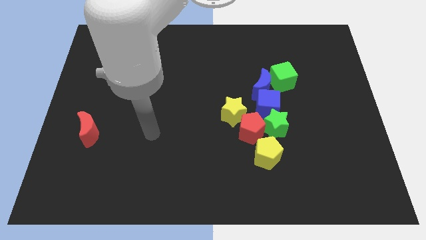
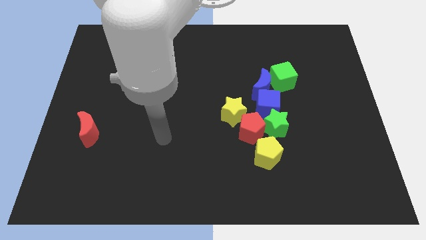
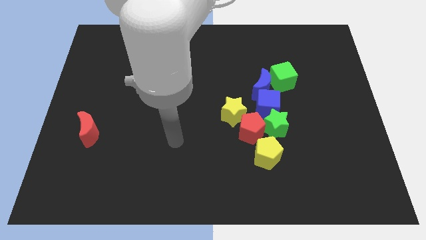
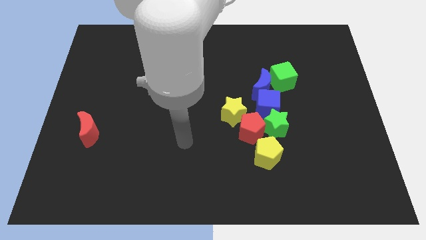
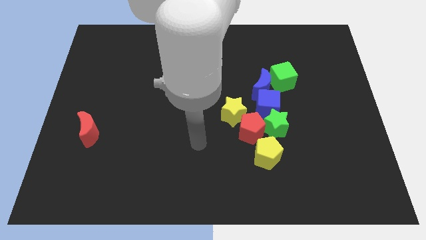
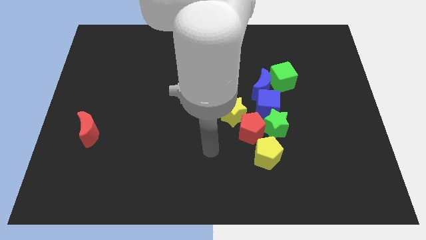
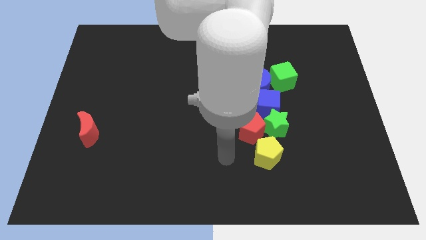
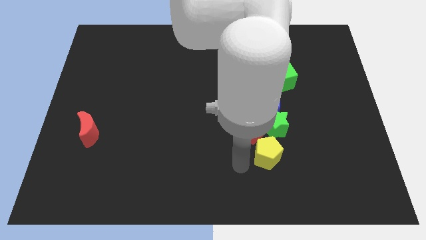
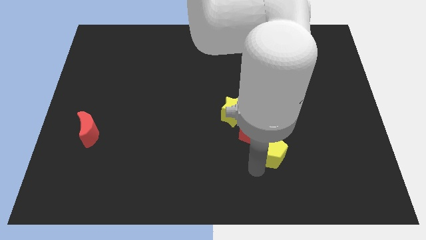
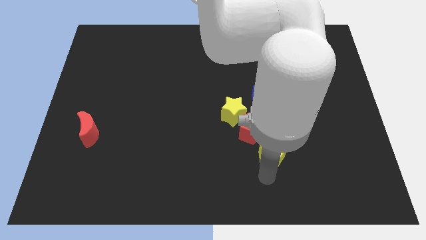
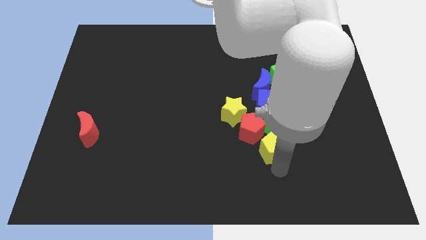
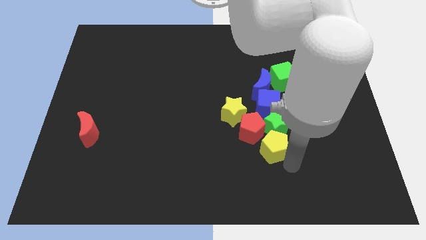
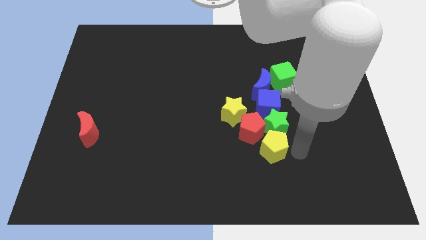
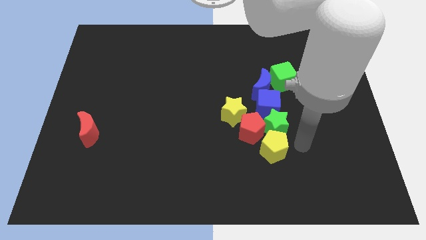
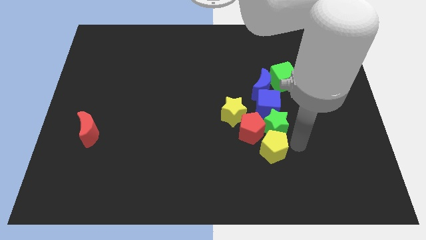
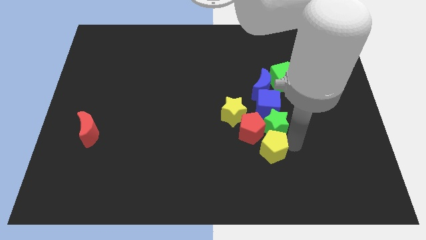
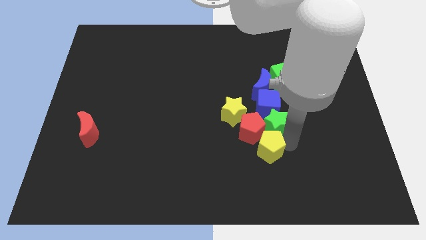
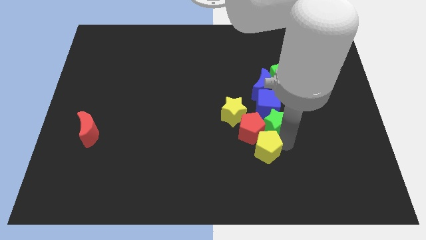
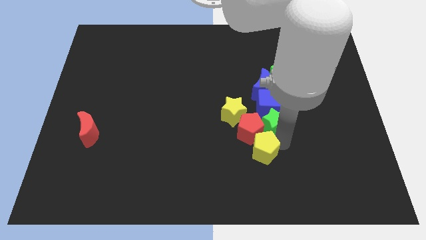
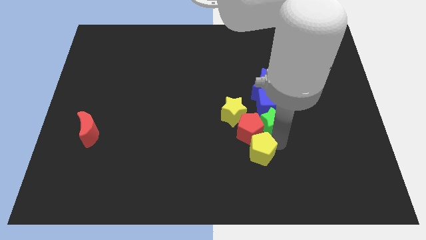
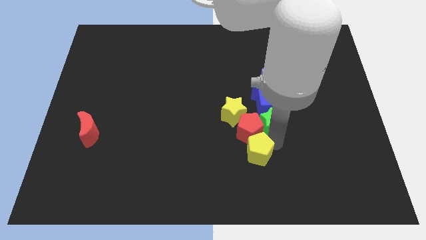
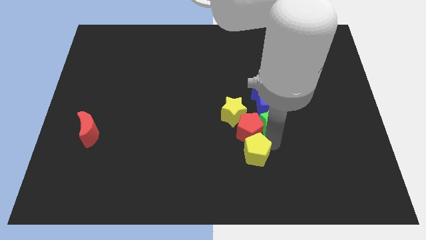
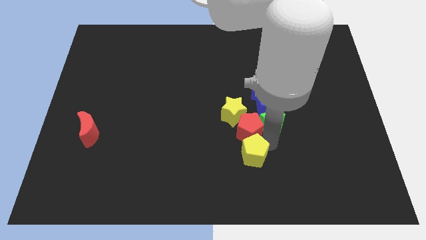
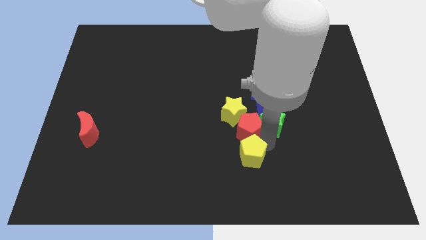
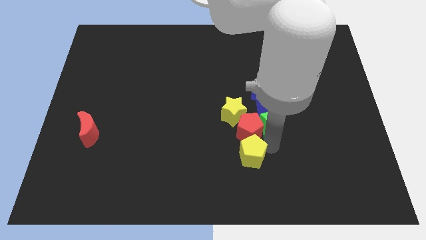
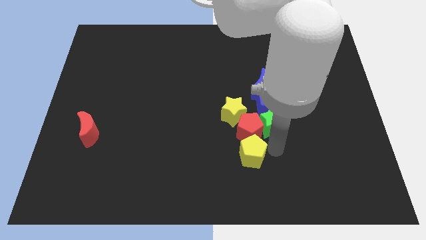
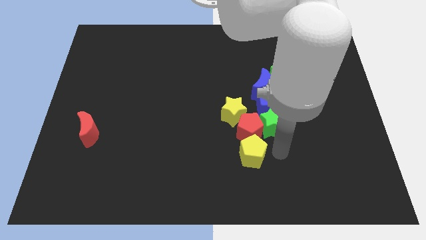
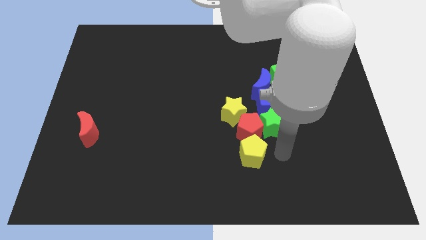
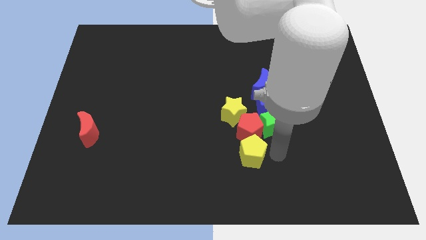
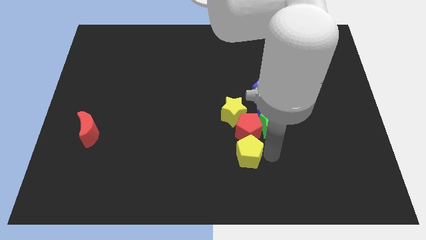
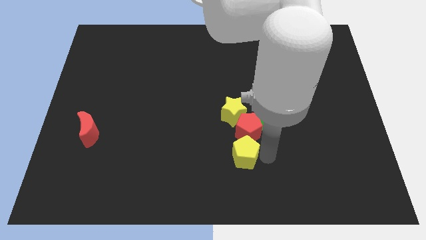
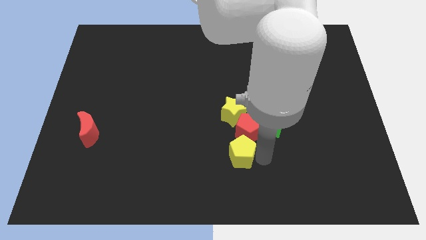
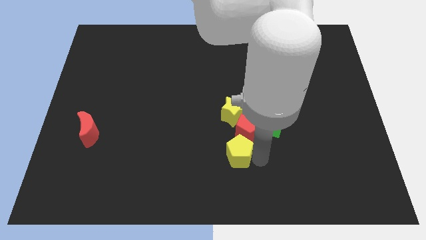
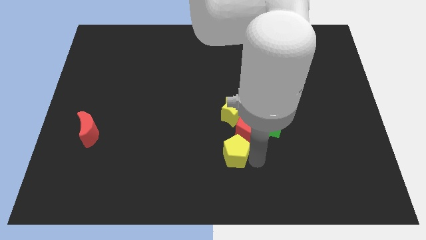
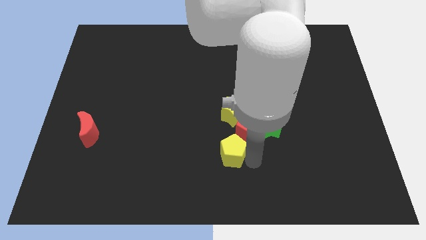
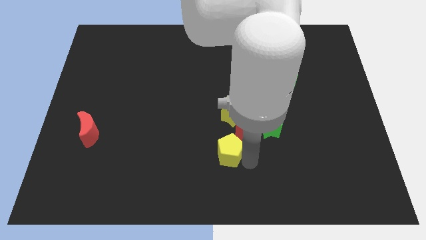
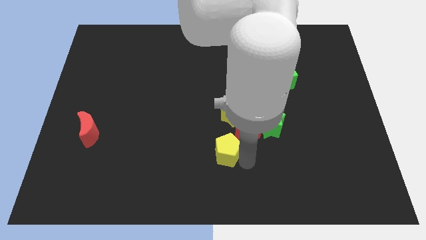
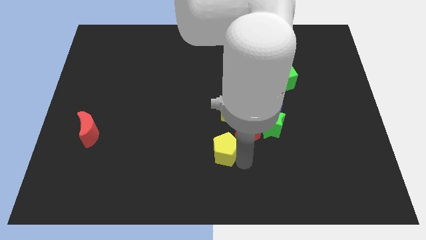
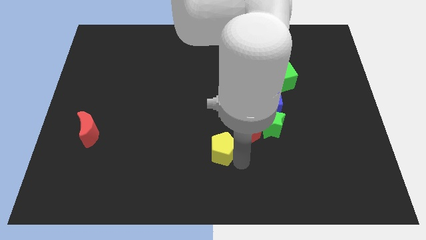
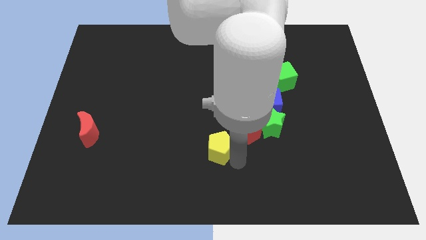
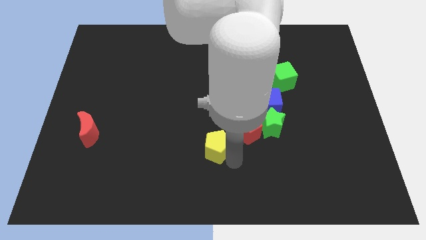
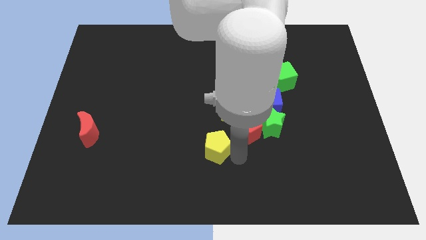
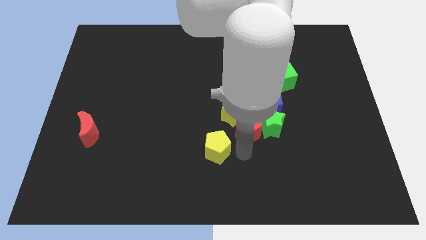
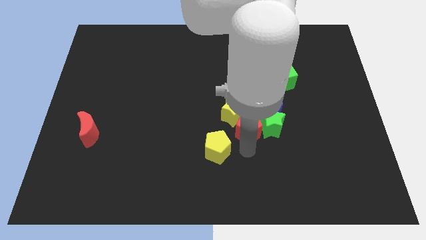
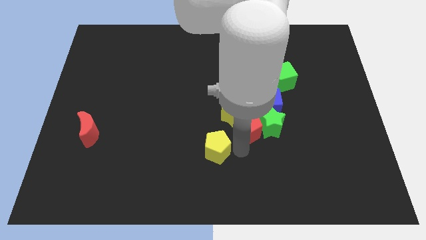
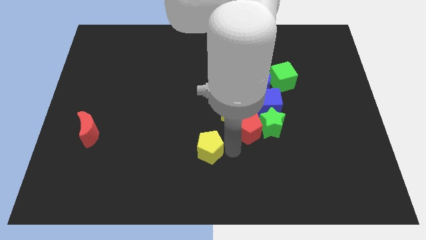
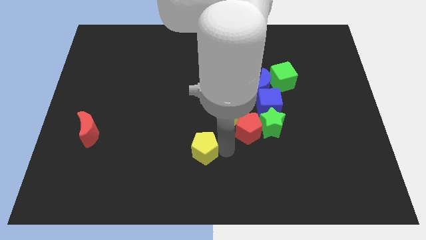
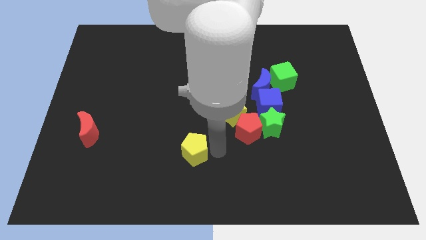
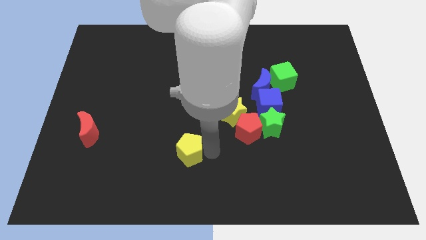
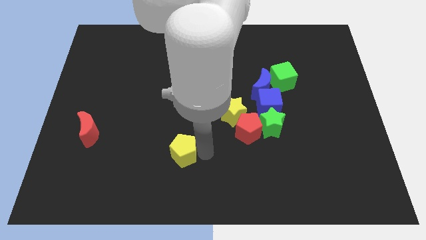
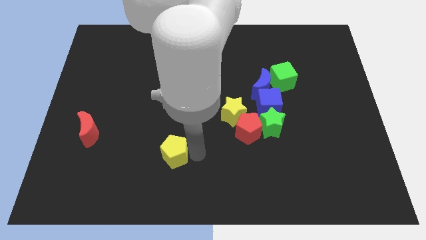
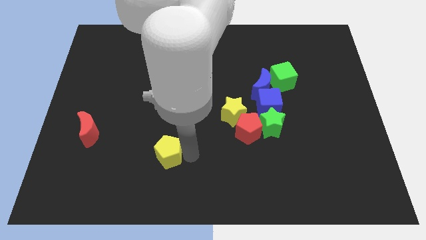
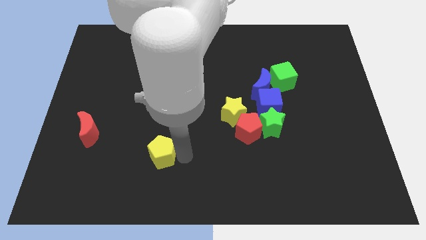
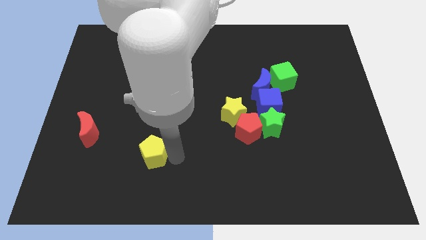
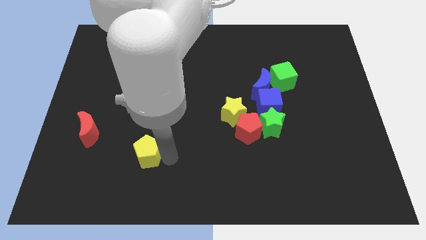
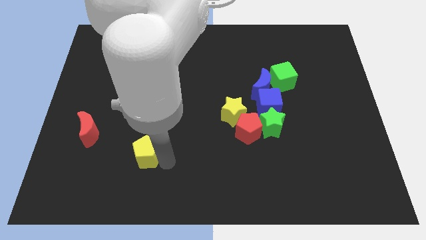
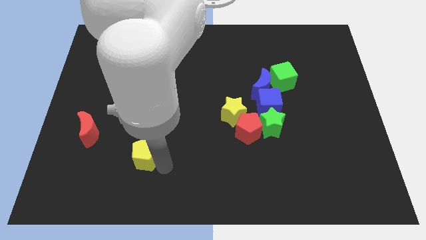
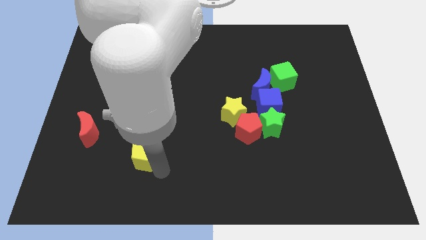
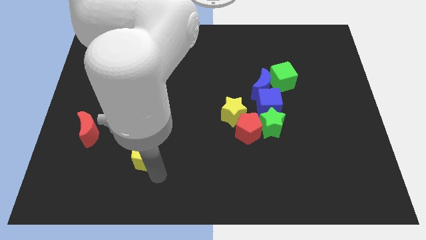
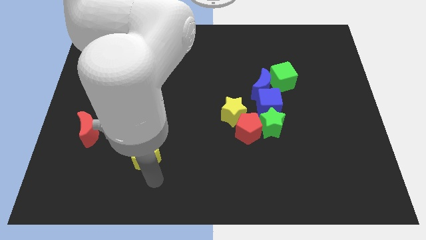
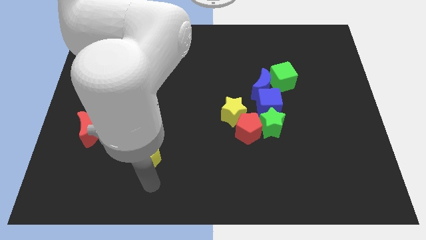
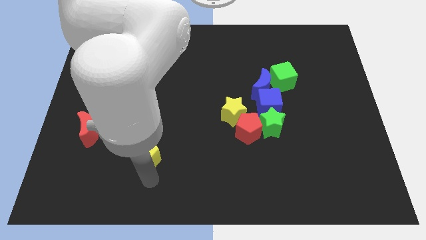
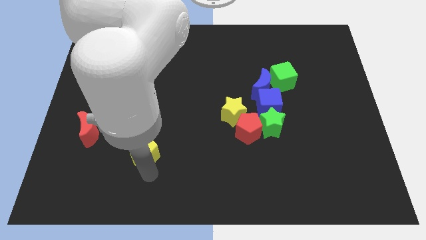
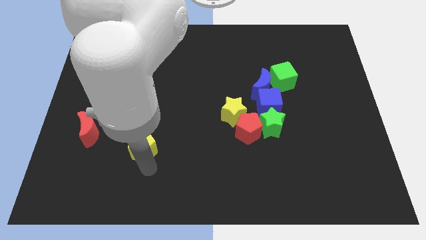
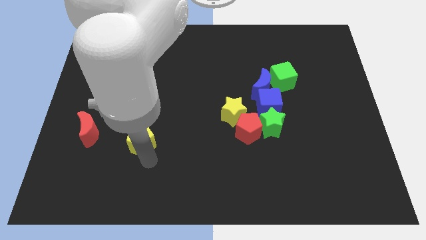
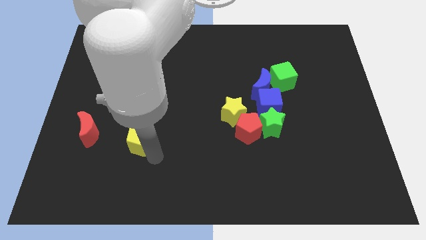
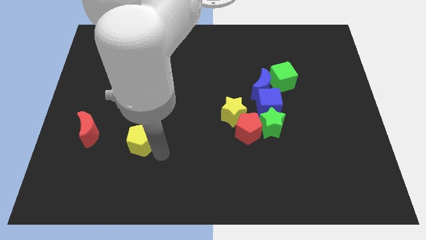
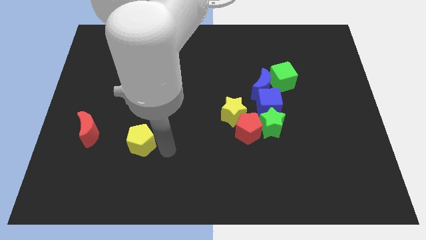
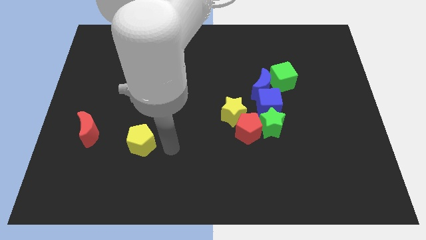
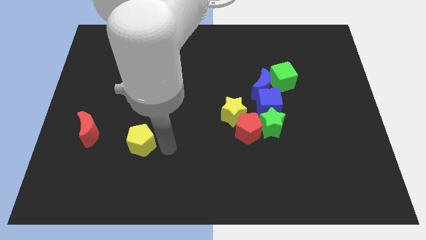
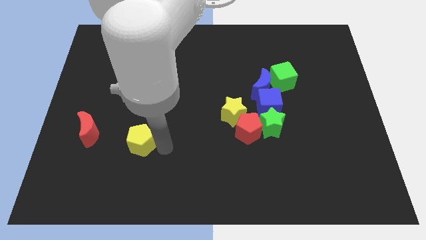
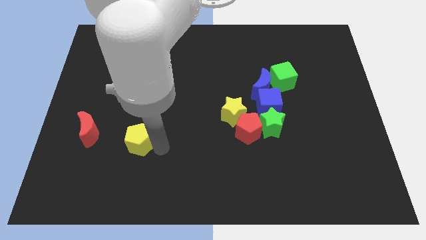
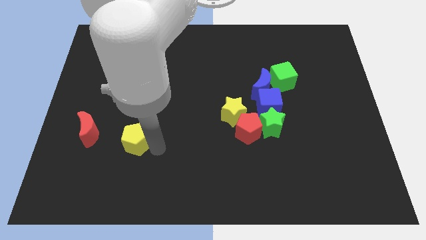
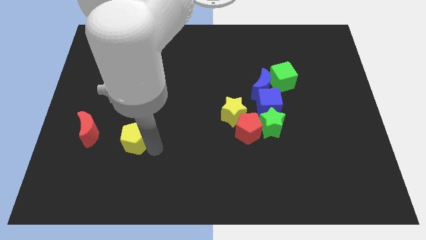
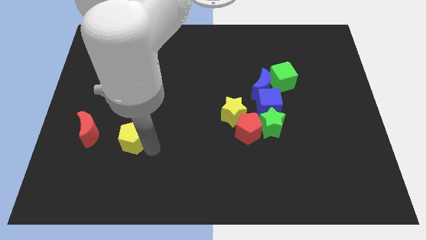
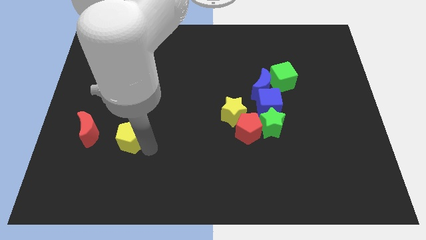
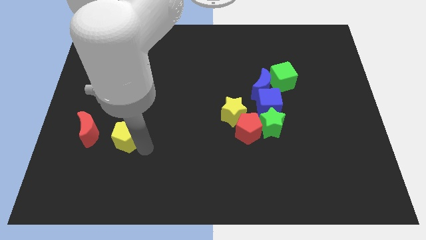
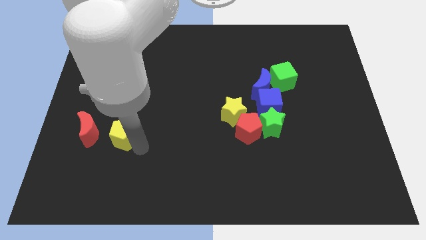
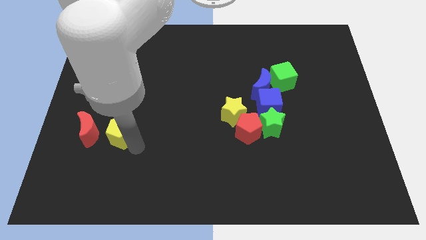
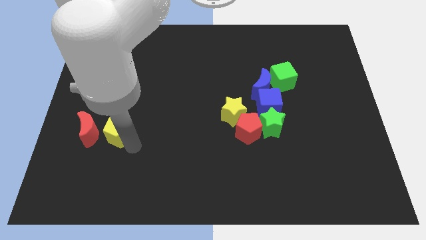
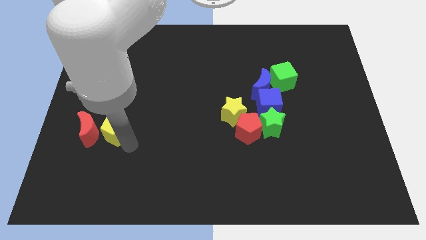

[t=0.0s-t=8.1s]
push the yellow pentagon next to the red moon
